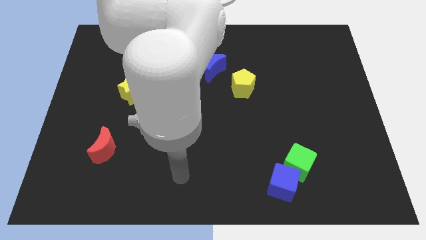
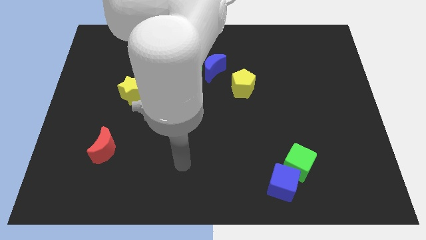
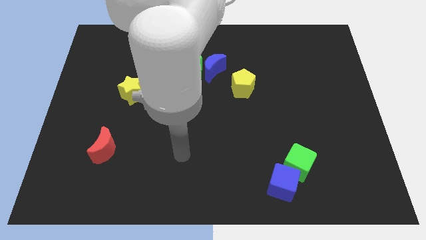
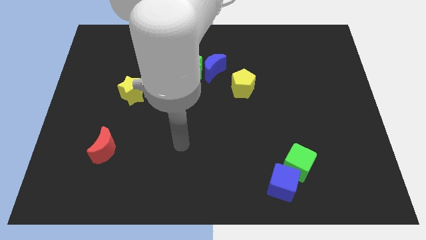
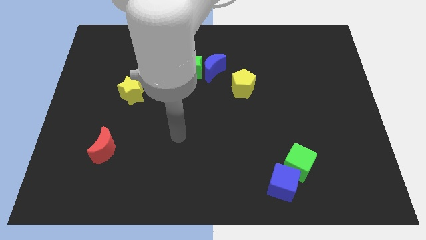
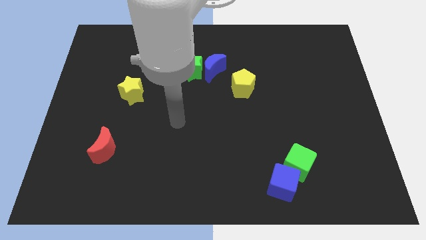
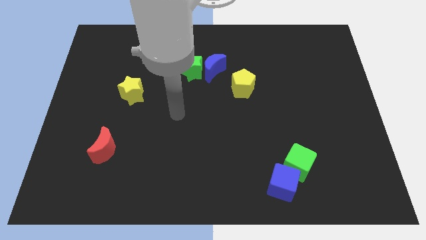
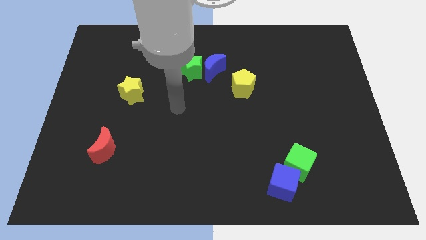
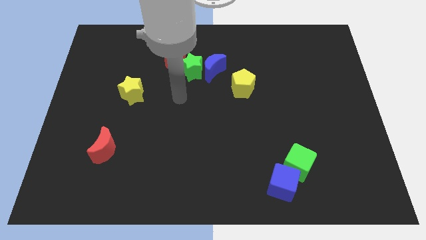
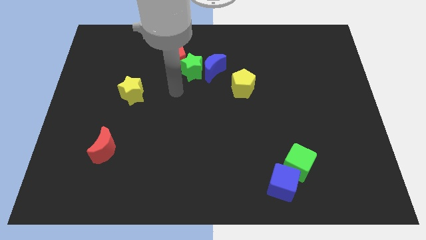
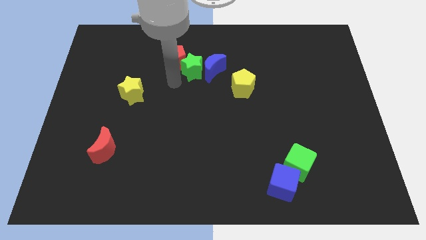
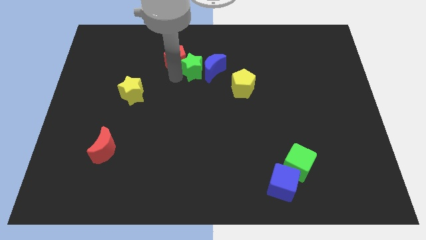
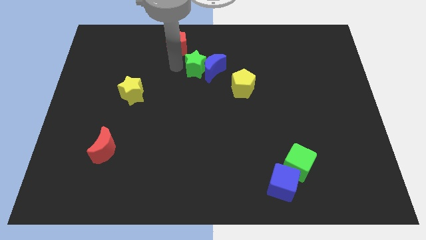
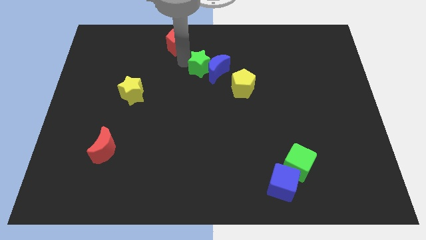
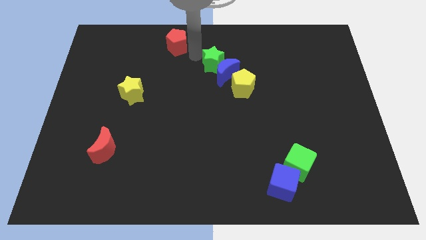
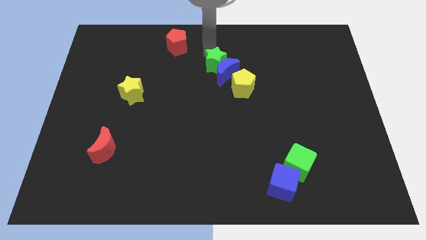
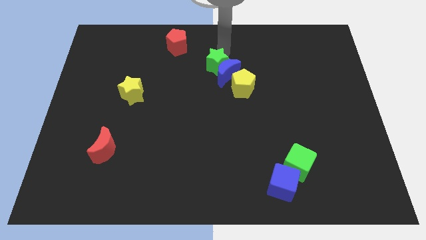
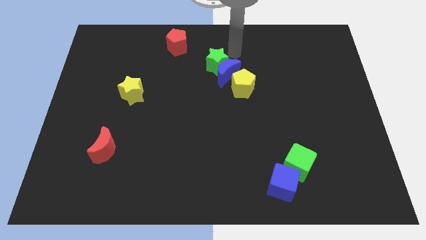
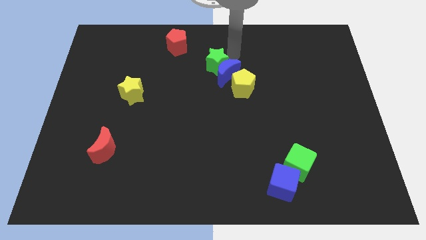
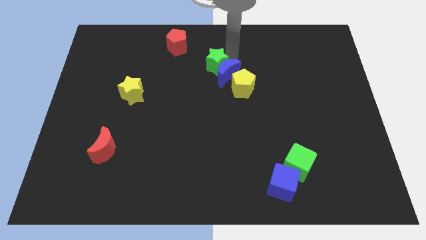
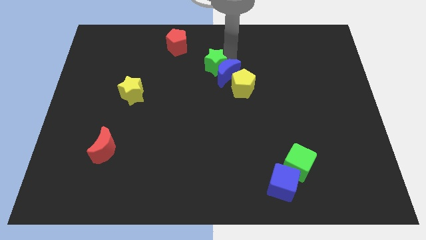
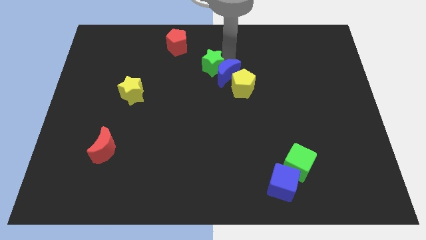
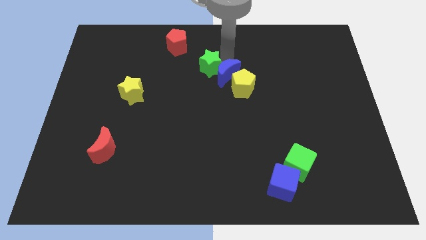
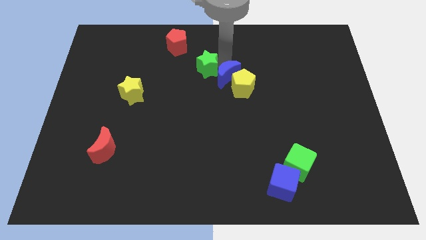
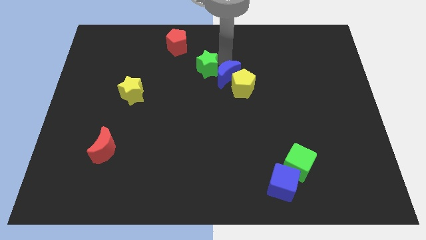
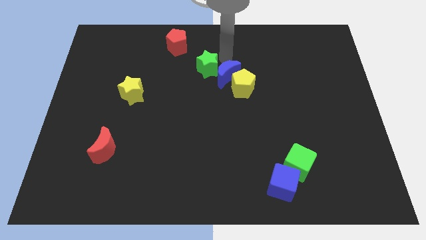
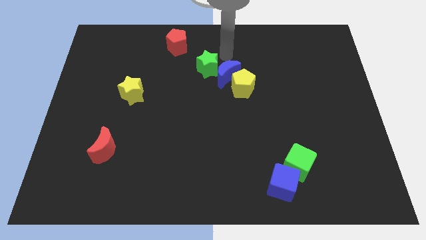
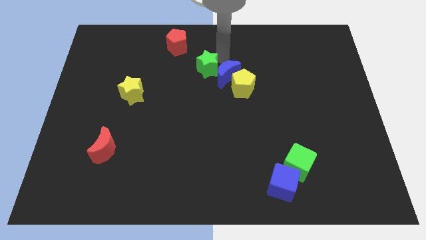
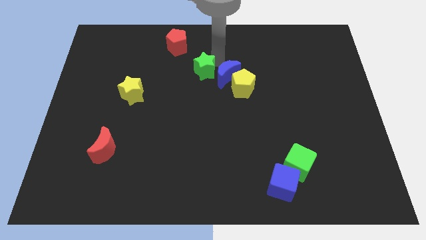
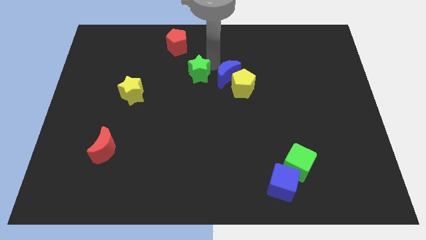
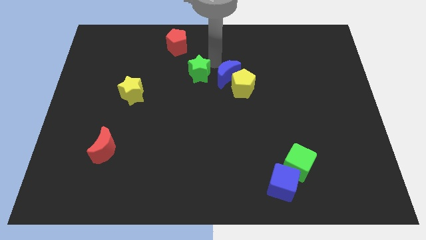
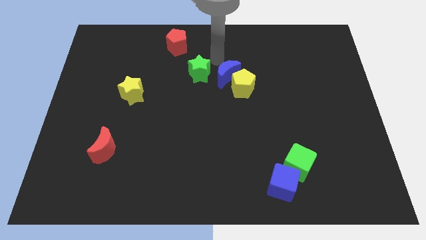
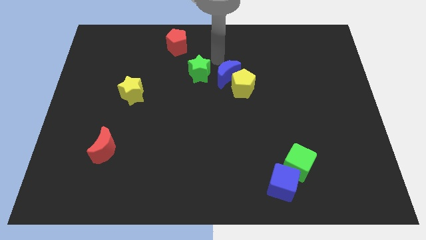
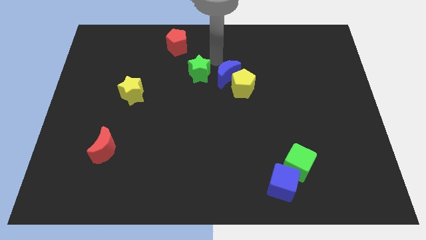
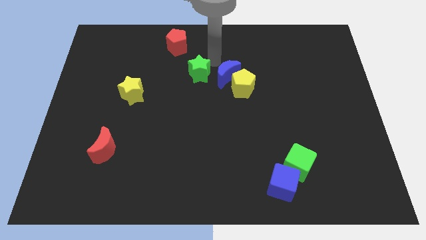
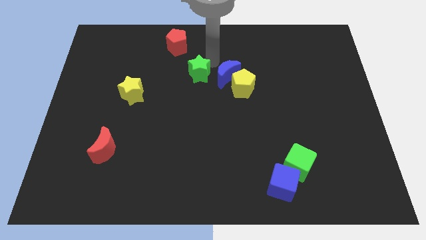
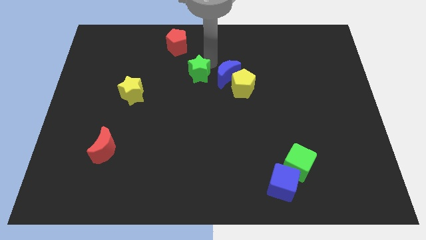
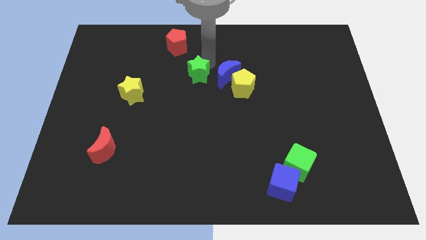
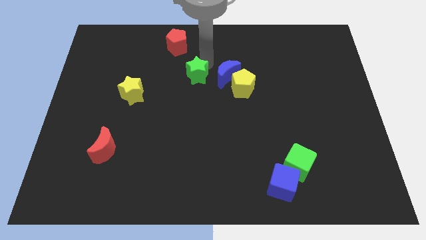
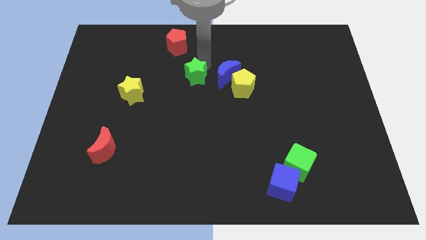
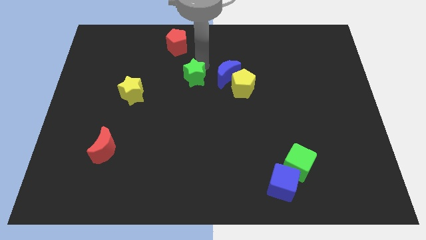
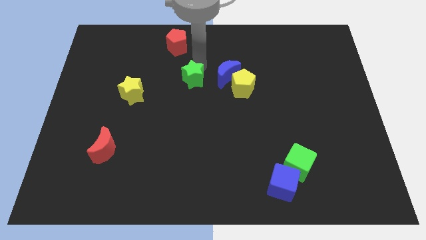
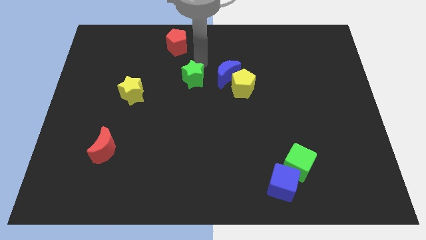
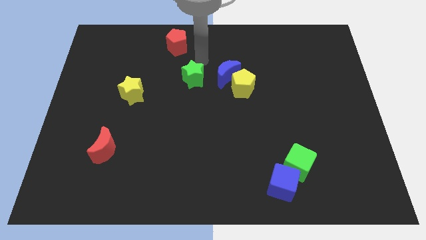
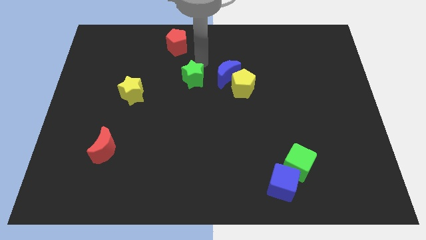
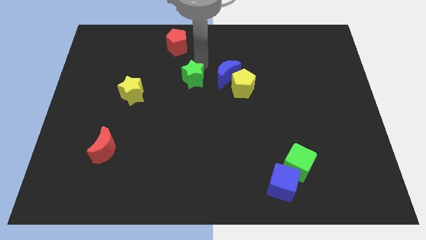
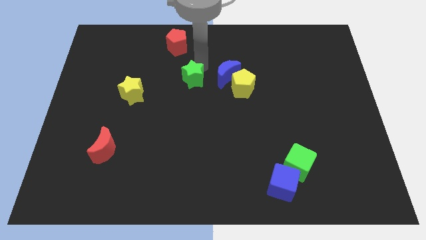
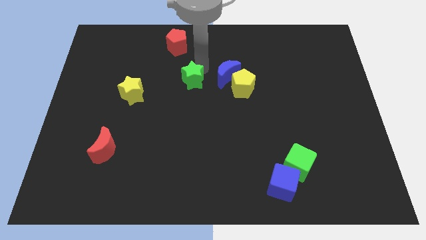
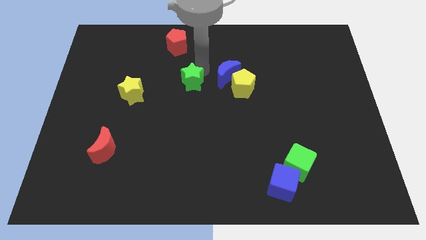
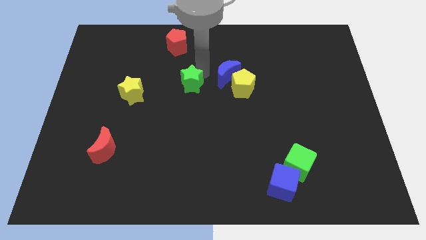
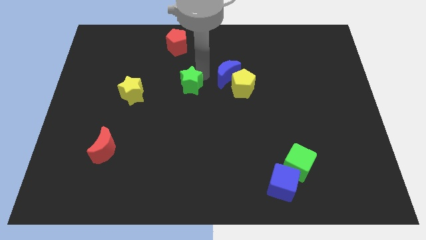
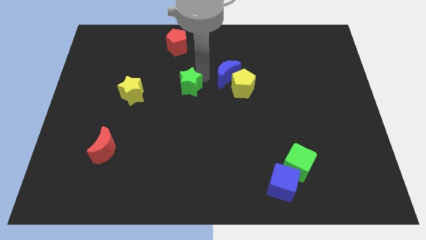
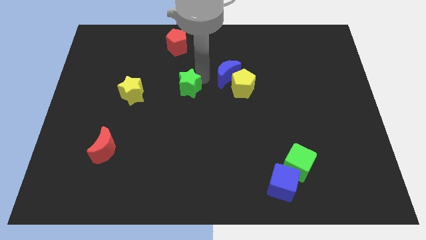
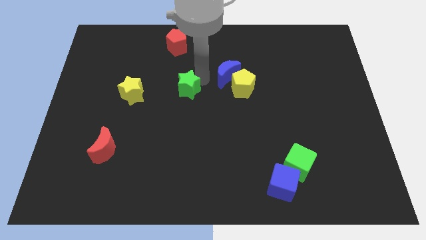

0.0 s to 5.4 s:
pull the green star apart from the red pentagon and blue moon

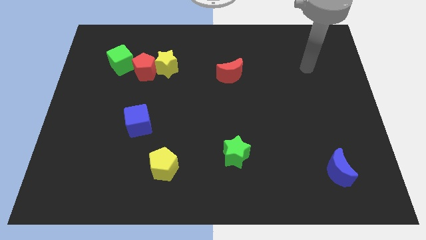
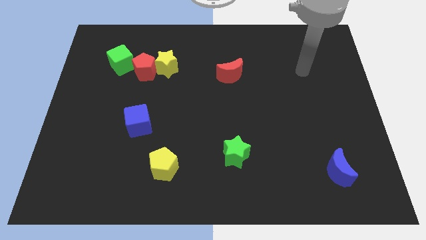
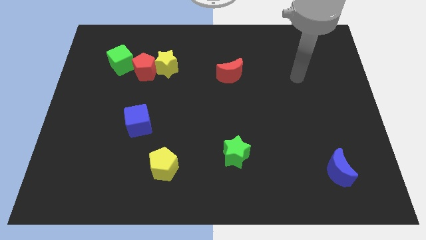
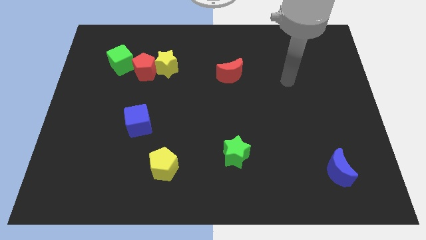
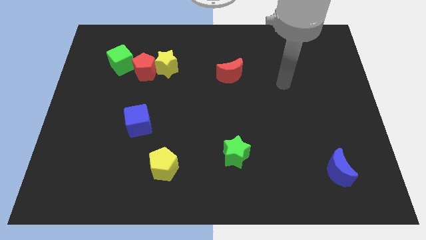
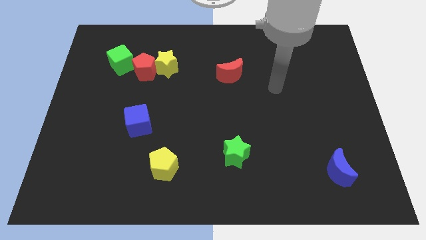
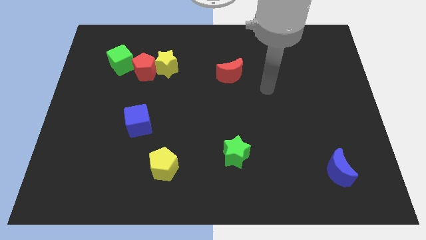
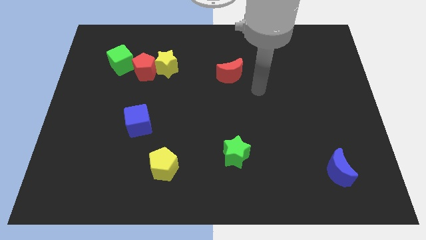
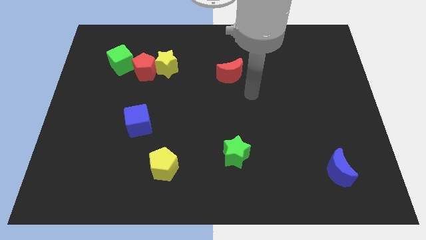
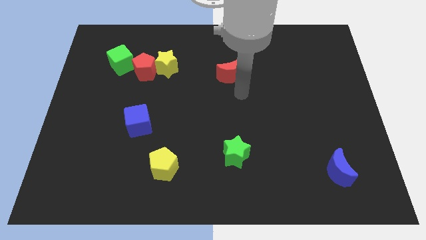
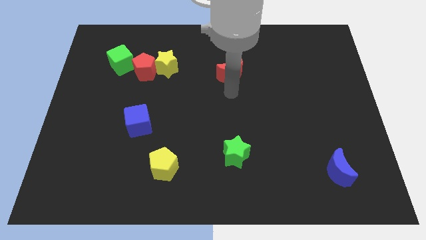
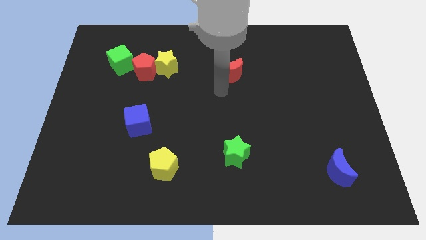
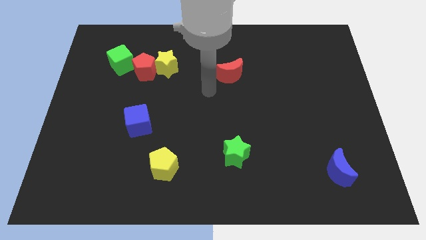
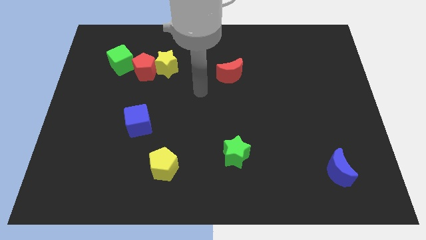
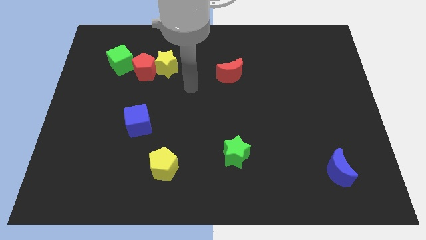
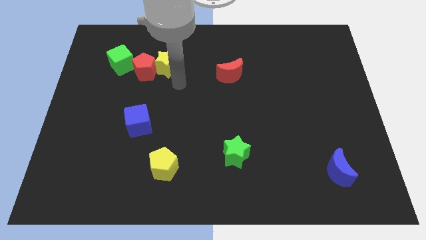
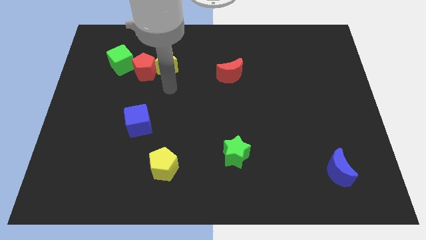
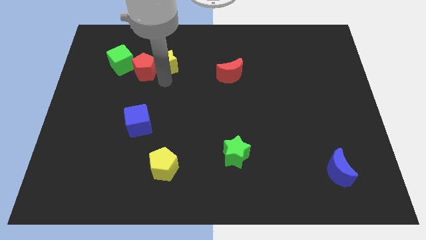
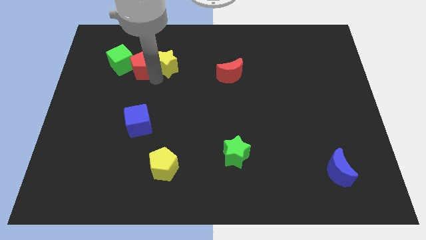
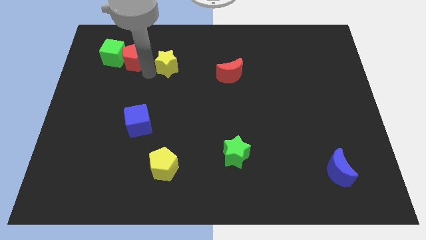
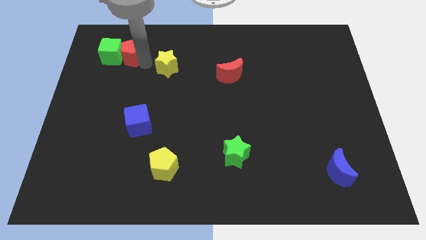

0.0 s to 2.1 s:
pull the yellow star apart from the red pentagon

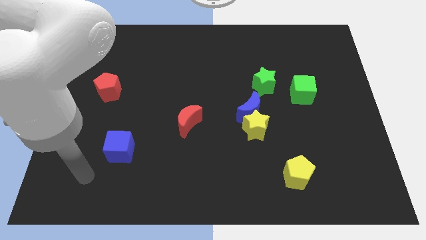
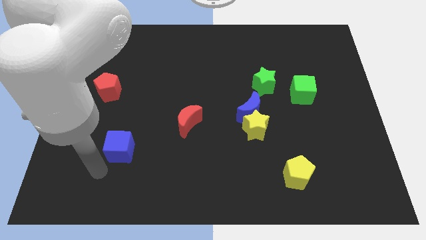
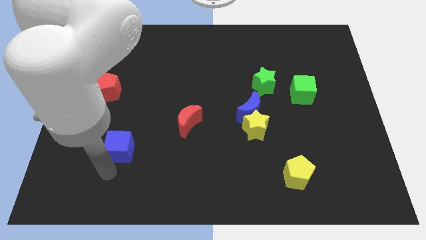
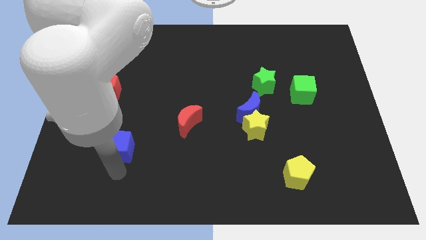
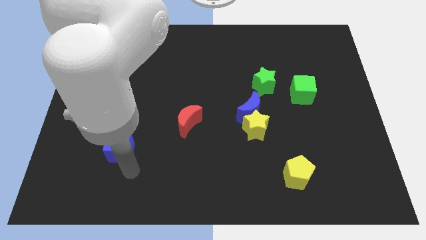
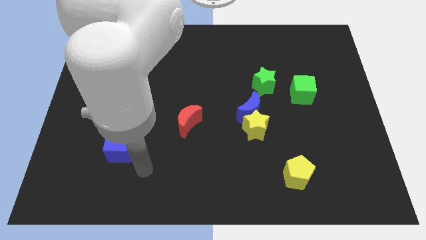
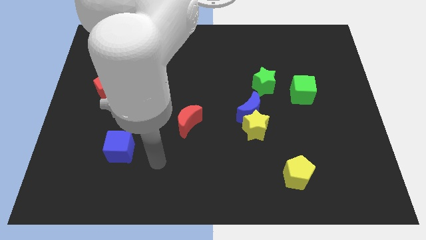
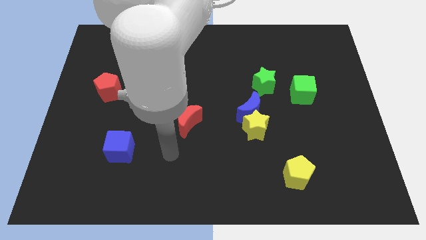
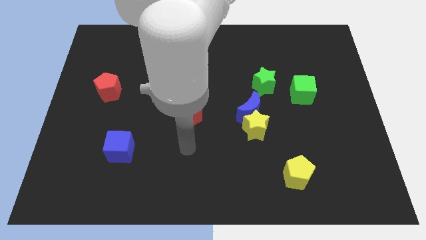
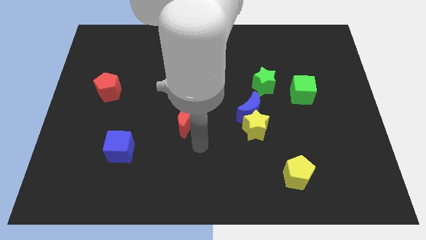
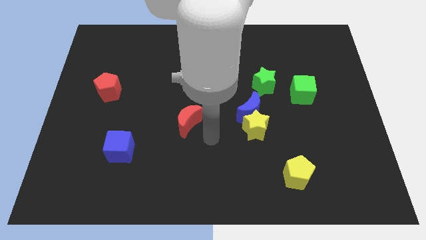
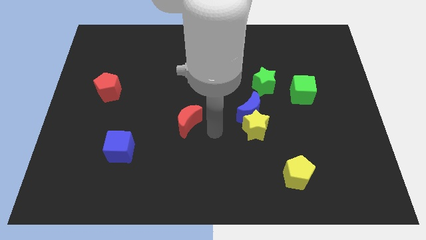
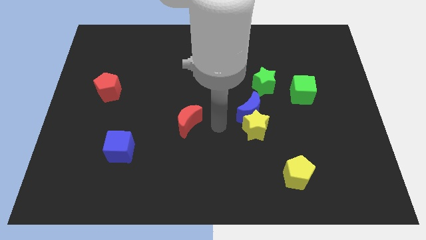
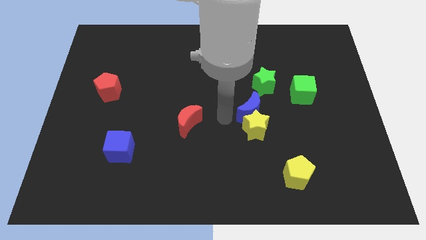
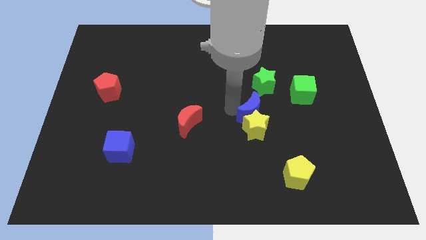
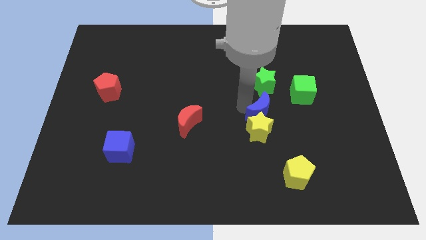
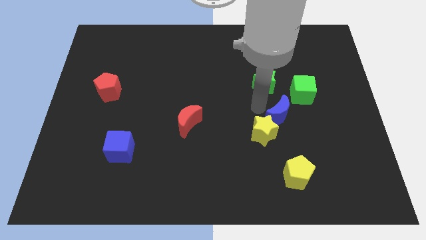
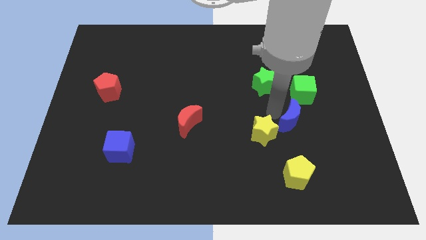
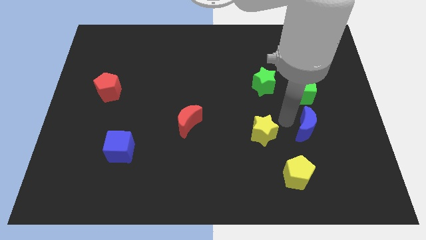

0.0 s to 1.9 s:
pull the yellow star apart from the blue moon

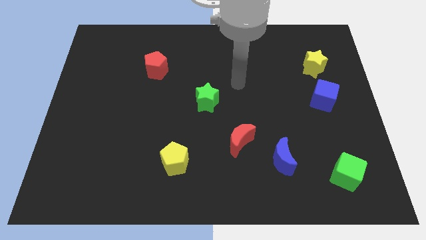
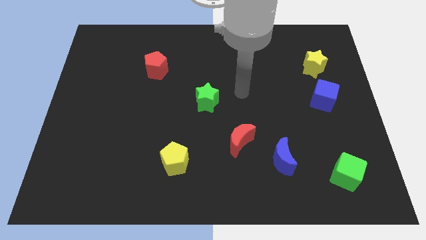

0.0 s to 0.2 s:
move the red moon away from the blue moon
